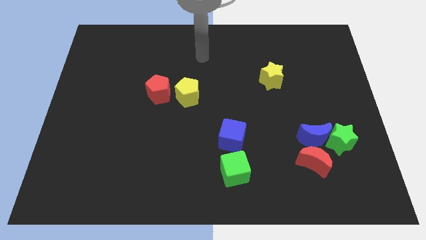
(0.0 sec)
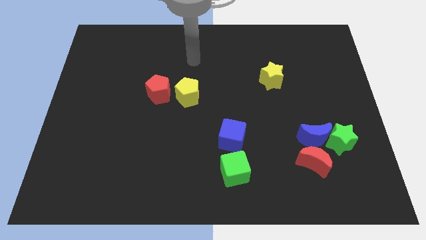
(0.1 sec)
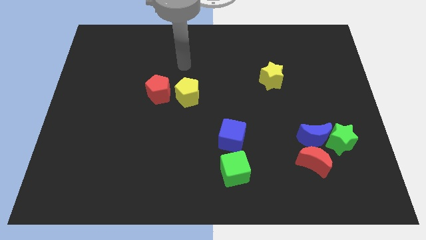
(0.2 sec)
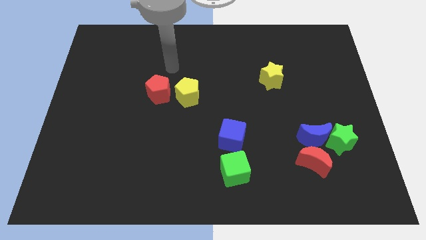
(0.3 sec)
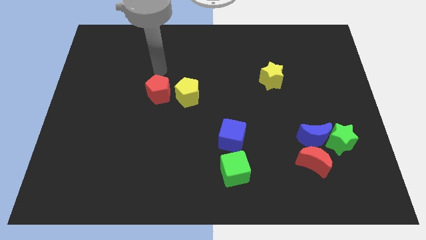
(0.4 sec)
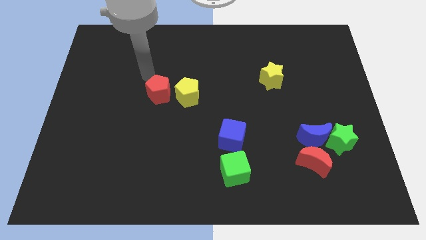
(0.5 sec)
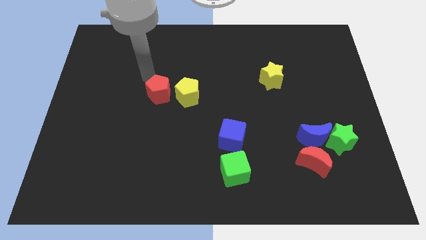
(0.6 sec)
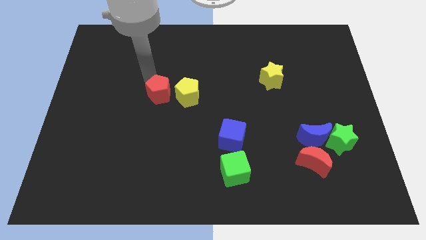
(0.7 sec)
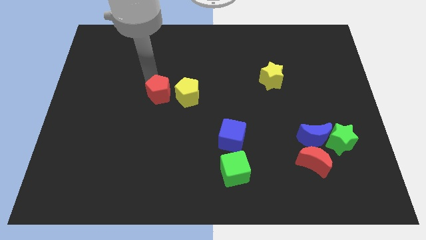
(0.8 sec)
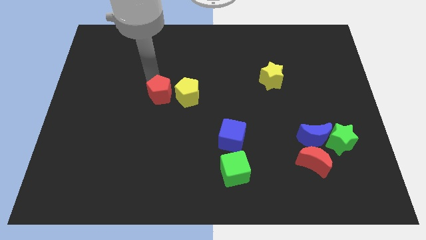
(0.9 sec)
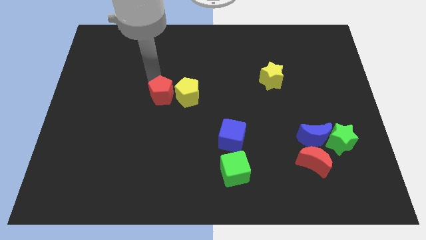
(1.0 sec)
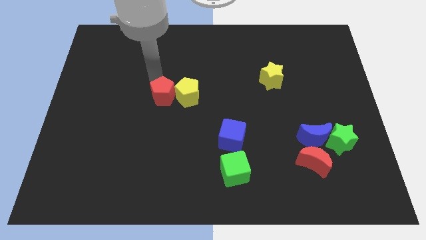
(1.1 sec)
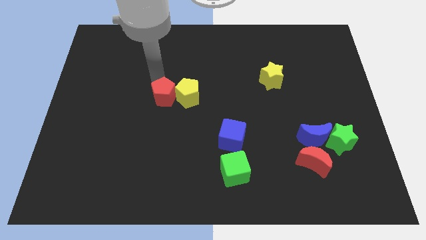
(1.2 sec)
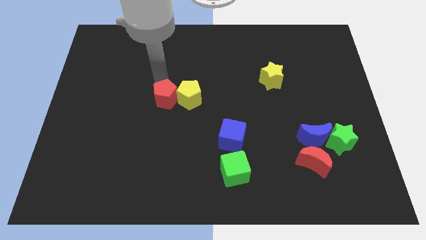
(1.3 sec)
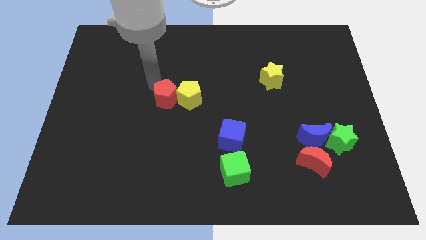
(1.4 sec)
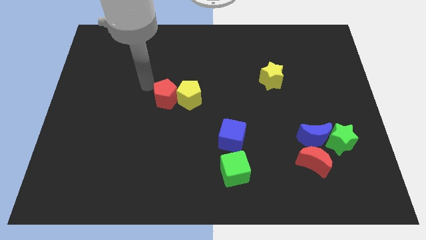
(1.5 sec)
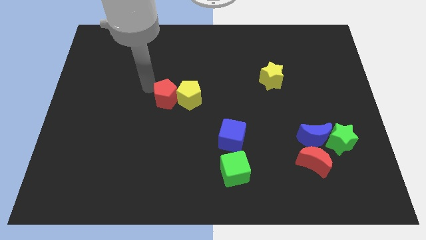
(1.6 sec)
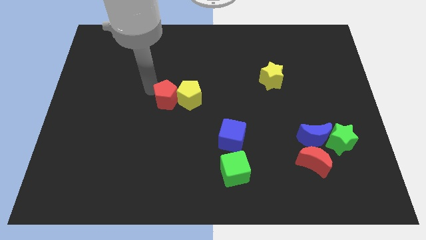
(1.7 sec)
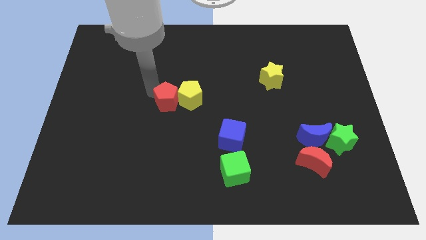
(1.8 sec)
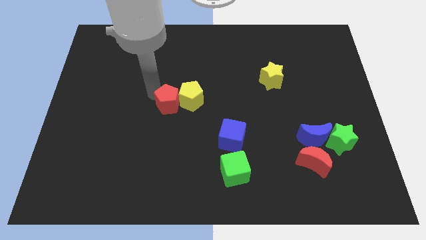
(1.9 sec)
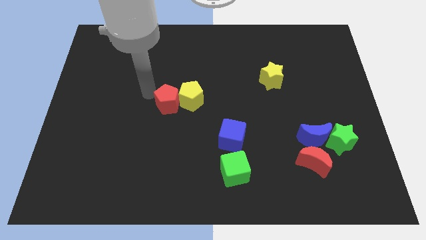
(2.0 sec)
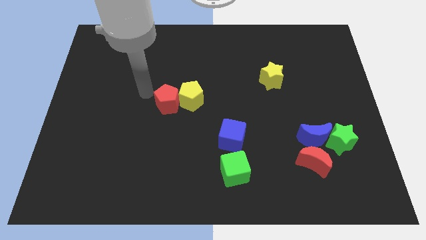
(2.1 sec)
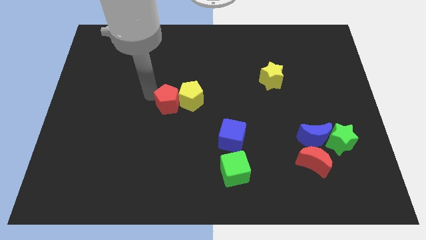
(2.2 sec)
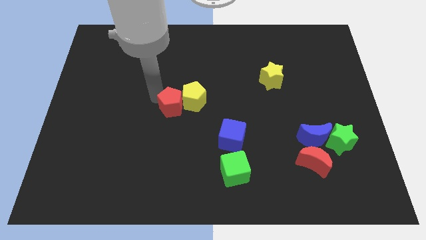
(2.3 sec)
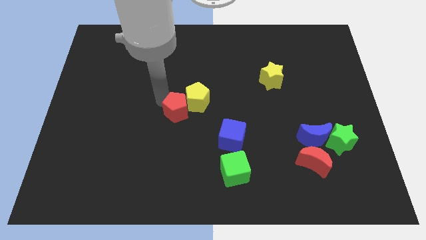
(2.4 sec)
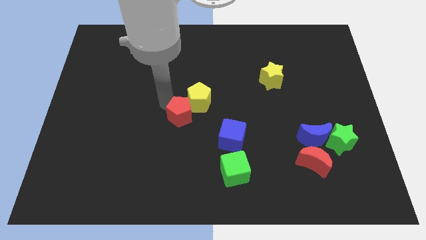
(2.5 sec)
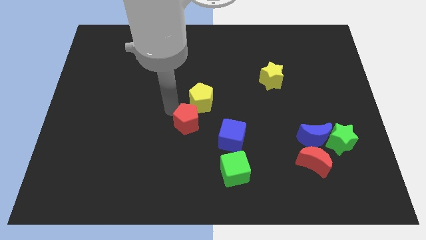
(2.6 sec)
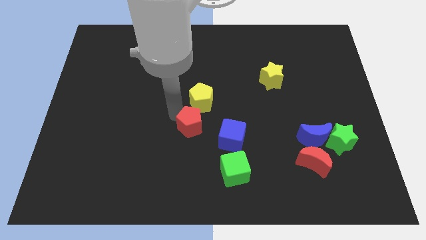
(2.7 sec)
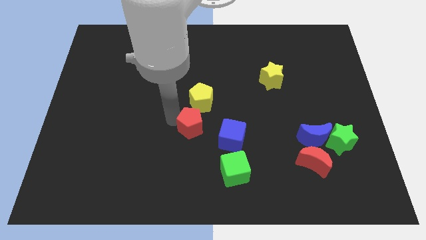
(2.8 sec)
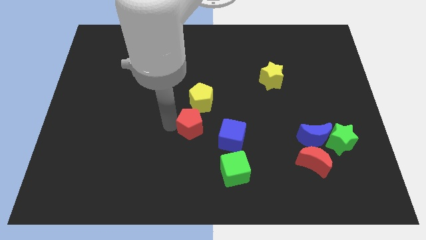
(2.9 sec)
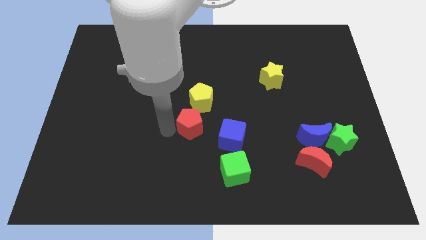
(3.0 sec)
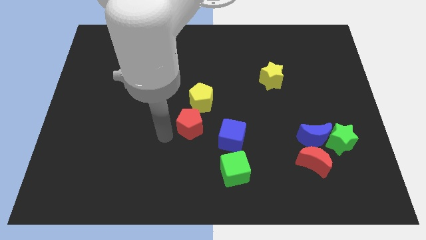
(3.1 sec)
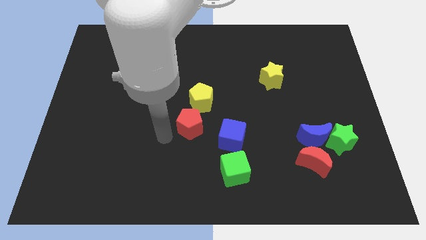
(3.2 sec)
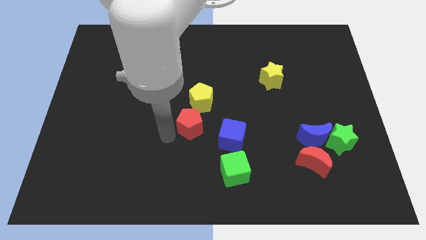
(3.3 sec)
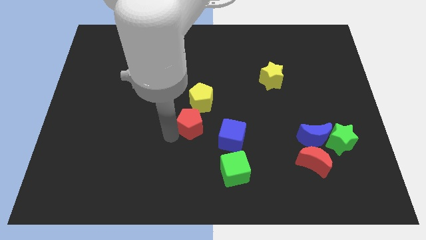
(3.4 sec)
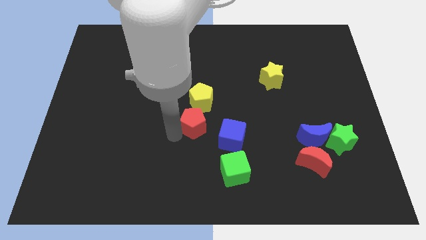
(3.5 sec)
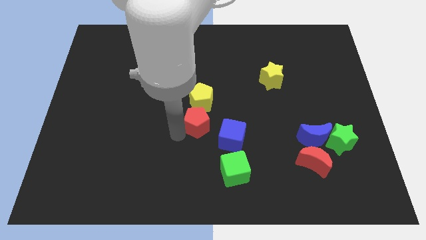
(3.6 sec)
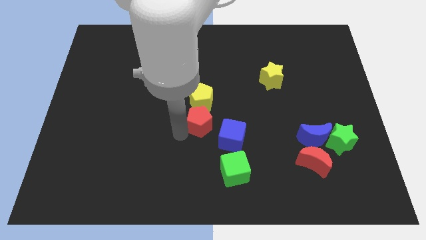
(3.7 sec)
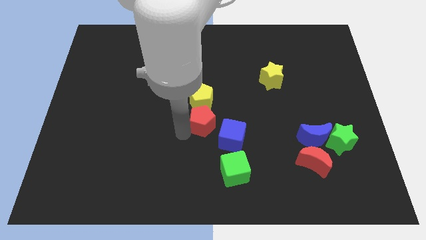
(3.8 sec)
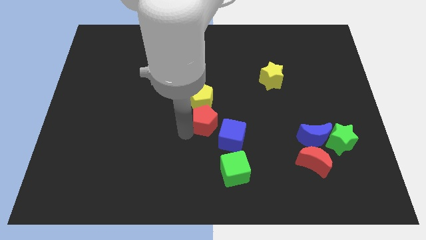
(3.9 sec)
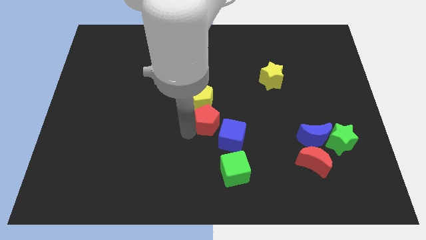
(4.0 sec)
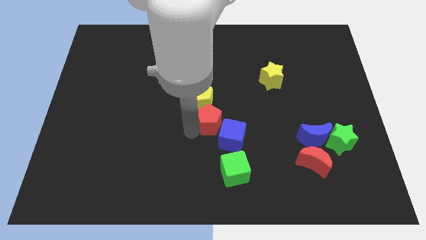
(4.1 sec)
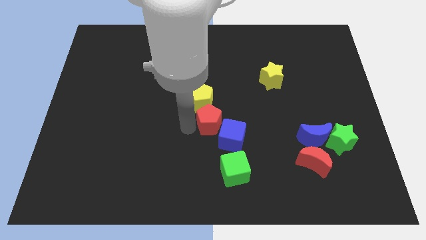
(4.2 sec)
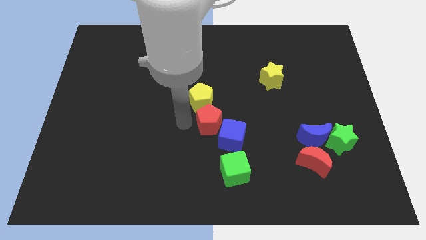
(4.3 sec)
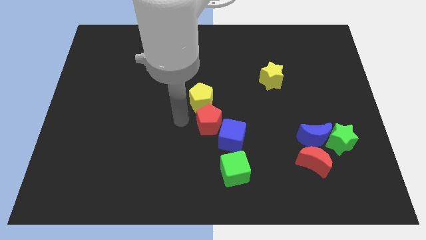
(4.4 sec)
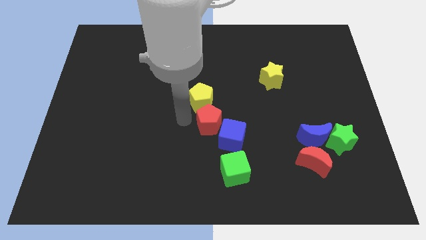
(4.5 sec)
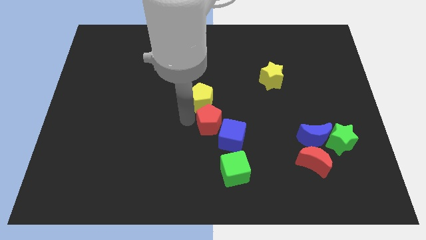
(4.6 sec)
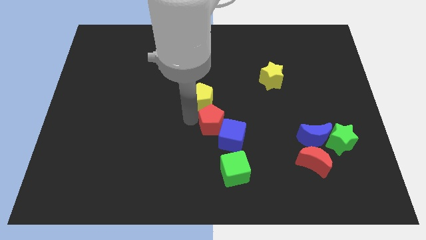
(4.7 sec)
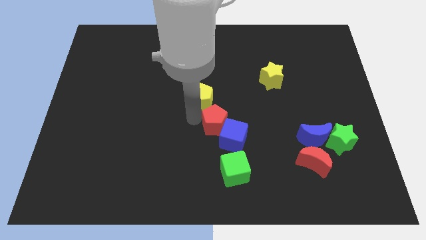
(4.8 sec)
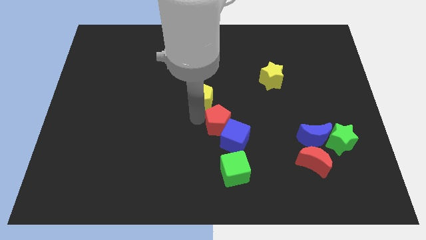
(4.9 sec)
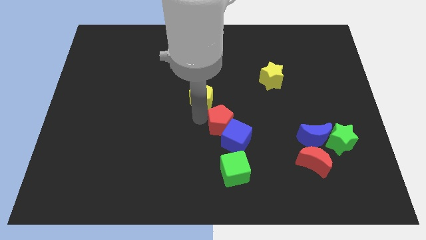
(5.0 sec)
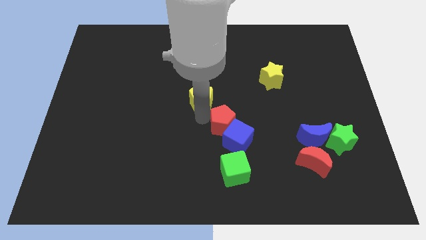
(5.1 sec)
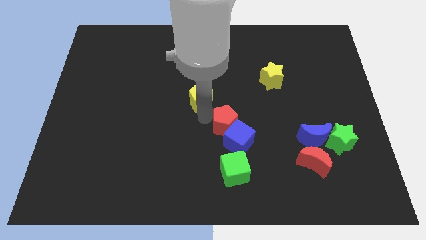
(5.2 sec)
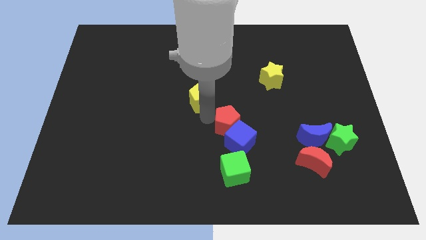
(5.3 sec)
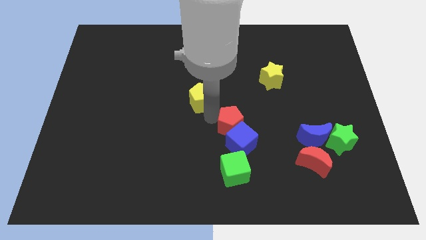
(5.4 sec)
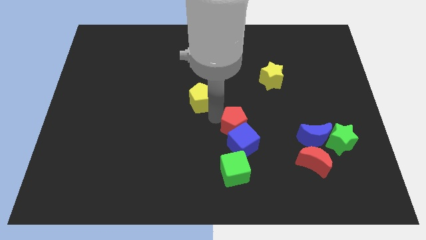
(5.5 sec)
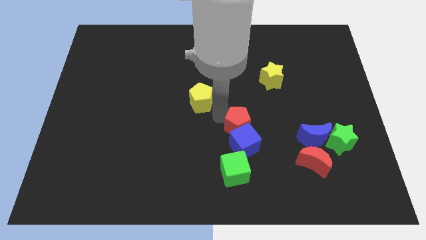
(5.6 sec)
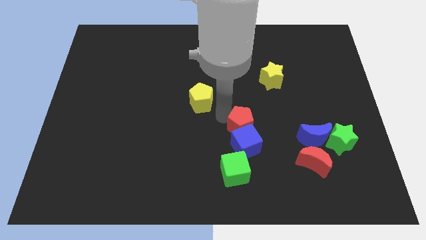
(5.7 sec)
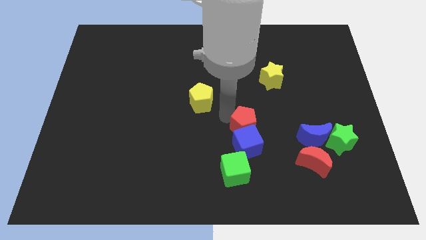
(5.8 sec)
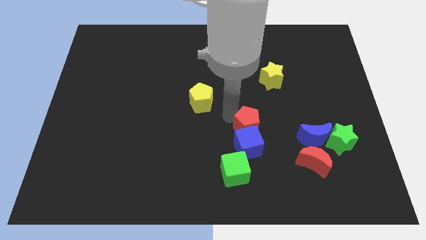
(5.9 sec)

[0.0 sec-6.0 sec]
move the red pentagon just left of the blue moon
